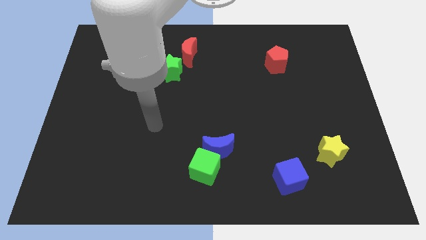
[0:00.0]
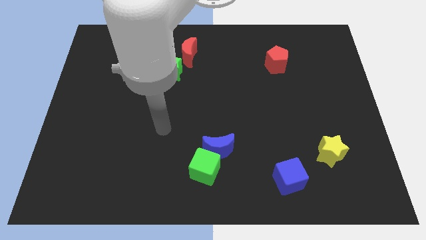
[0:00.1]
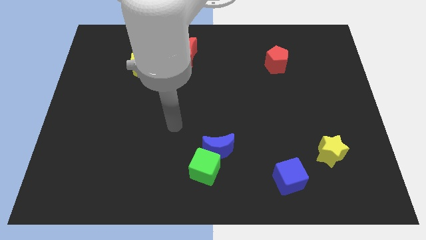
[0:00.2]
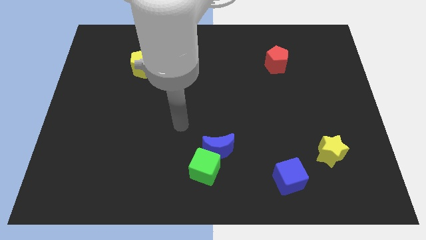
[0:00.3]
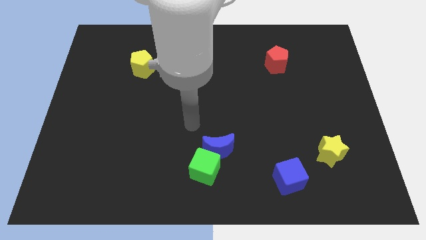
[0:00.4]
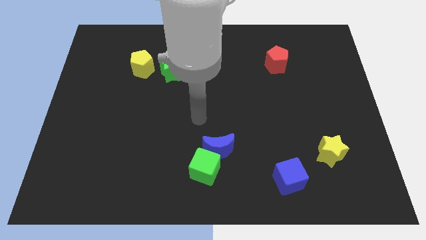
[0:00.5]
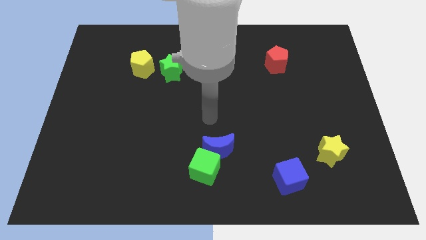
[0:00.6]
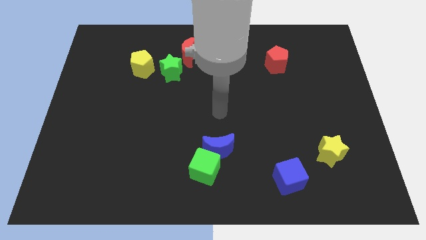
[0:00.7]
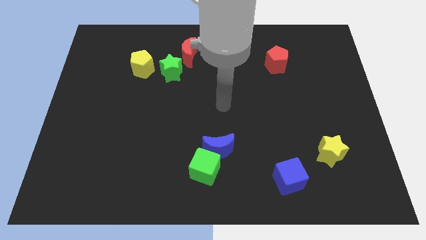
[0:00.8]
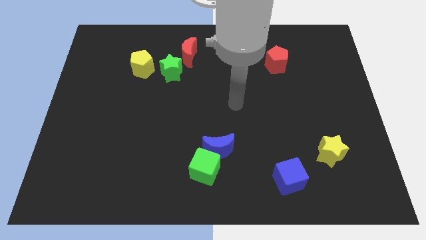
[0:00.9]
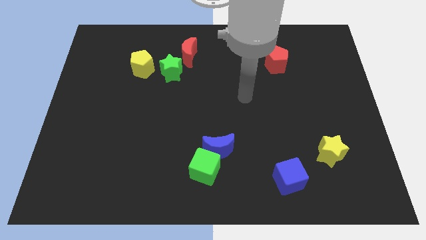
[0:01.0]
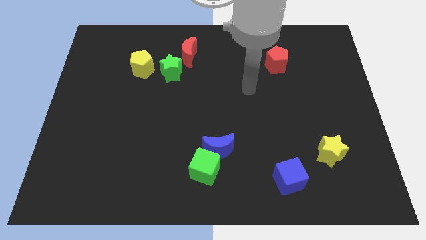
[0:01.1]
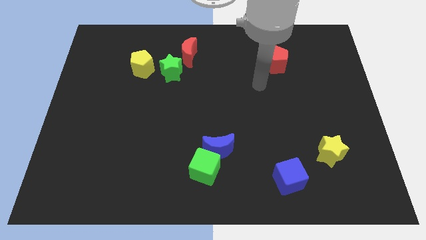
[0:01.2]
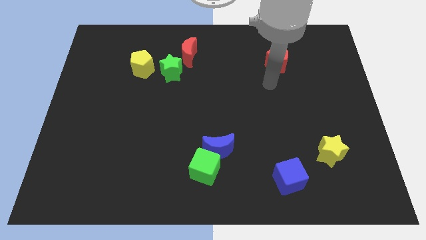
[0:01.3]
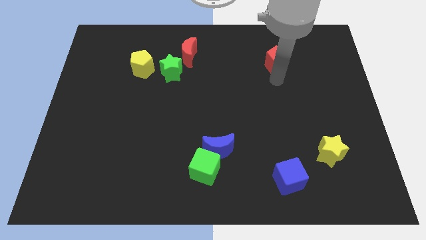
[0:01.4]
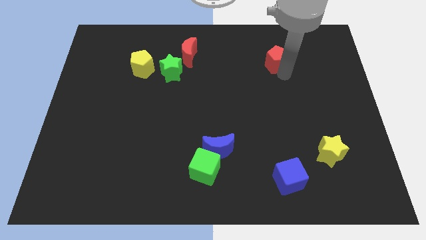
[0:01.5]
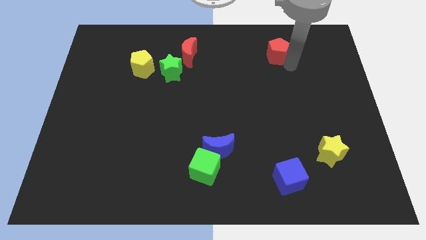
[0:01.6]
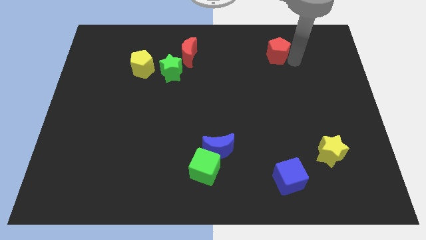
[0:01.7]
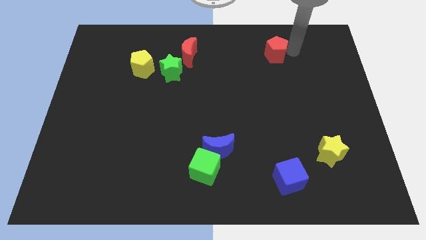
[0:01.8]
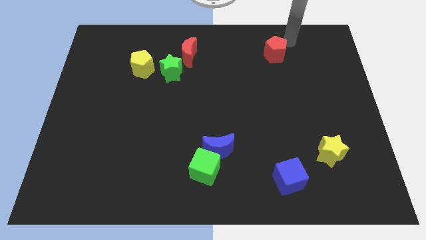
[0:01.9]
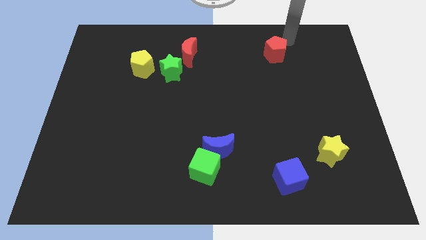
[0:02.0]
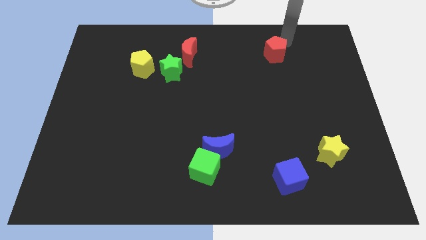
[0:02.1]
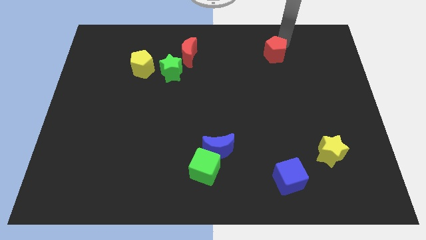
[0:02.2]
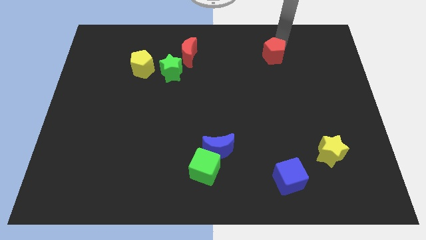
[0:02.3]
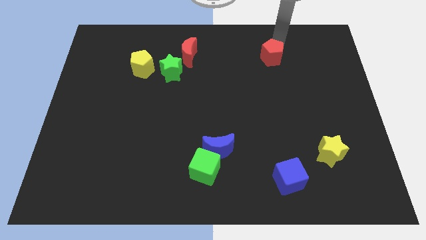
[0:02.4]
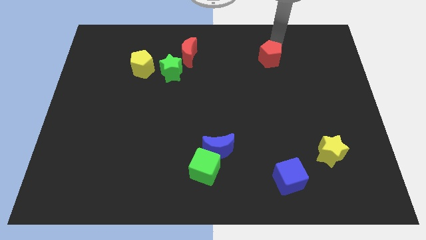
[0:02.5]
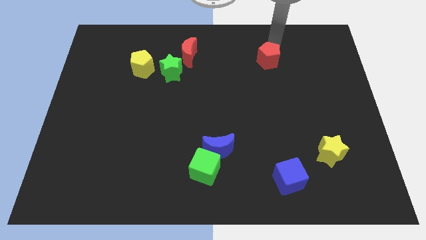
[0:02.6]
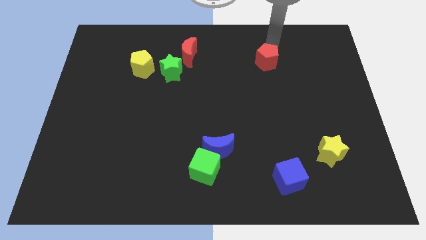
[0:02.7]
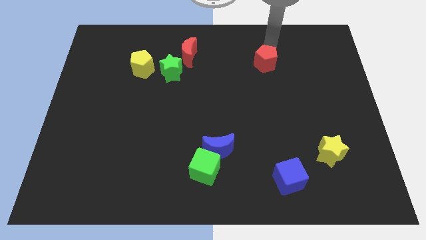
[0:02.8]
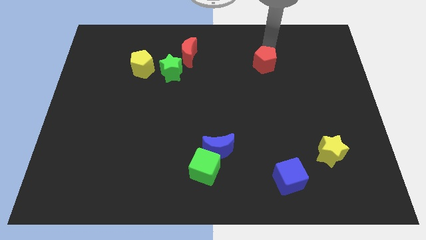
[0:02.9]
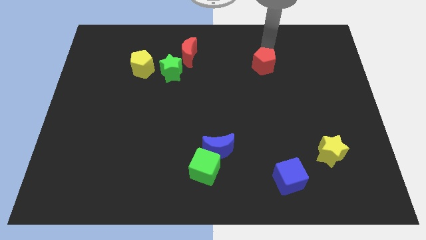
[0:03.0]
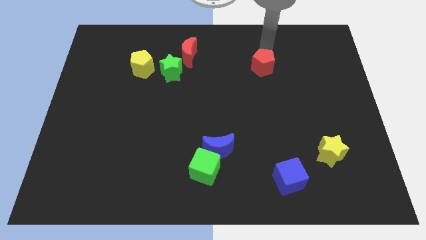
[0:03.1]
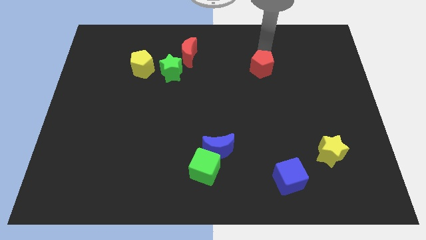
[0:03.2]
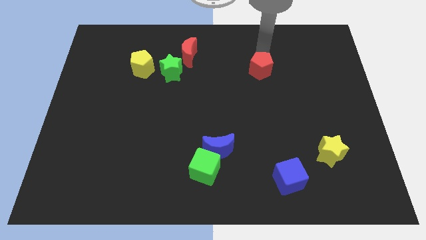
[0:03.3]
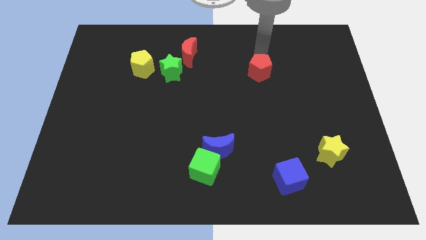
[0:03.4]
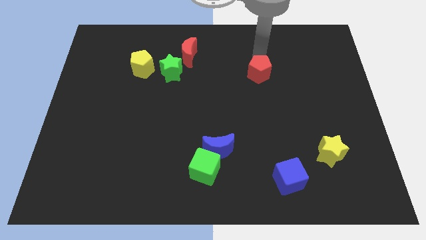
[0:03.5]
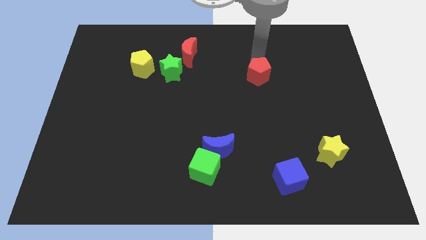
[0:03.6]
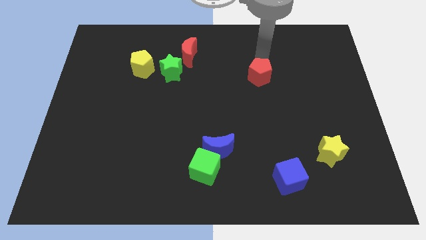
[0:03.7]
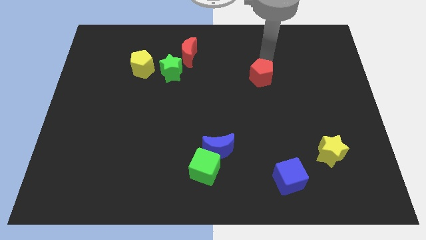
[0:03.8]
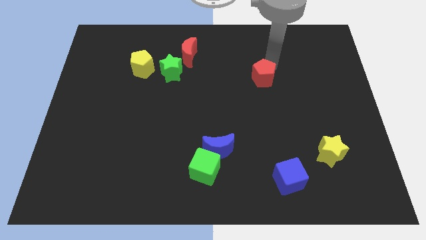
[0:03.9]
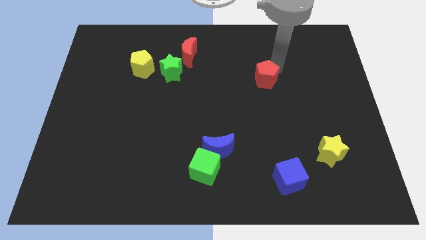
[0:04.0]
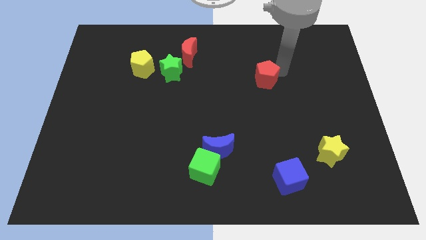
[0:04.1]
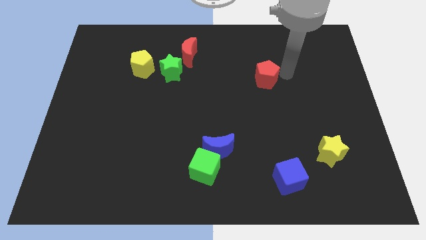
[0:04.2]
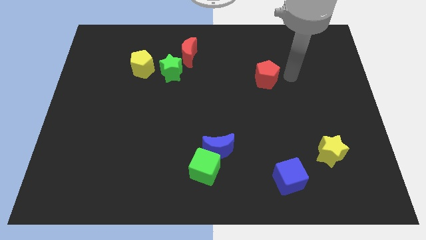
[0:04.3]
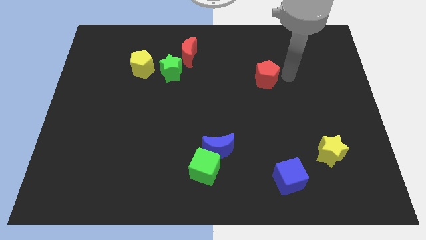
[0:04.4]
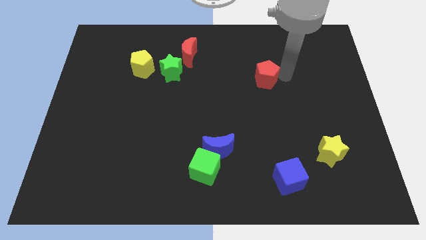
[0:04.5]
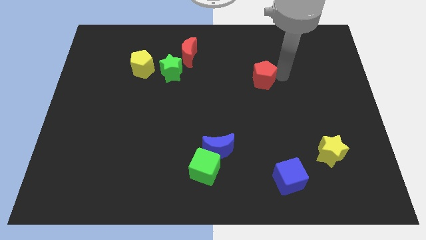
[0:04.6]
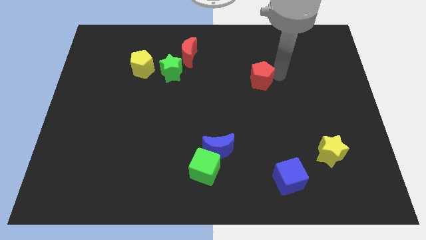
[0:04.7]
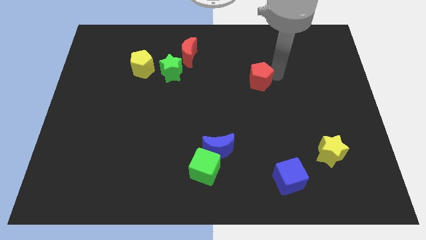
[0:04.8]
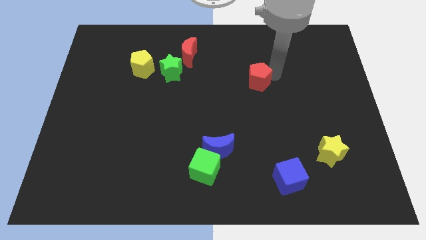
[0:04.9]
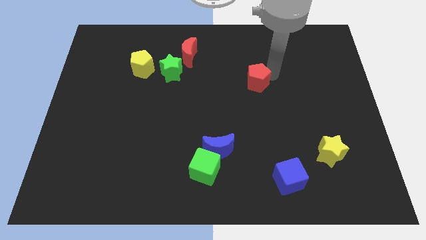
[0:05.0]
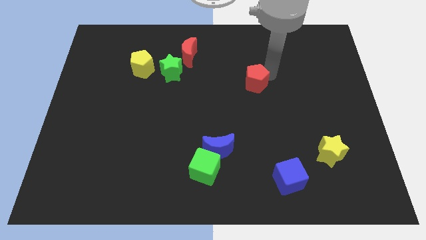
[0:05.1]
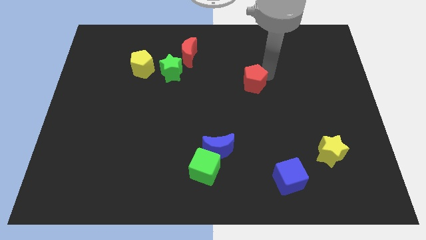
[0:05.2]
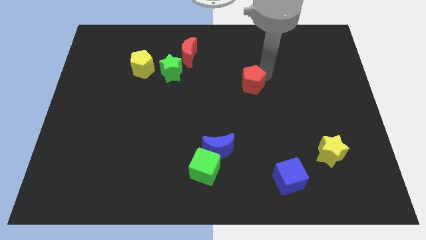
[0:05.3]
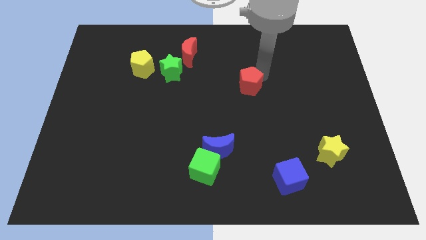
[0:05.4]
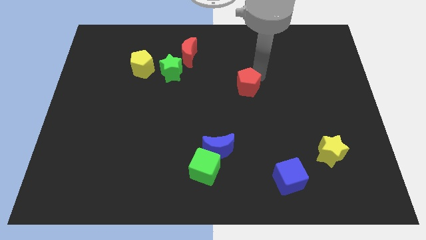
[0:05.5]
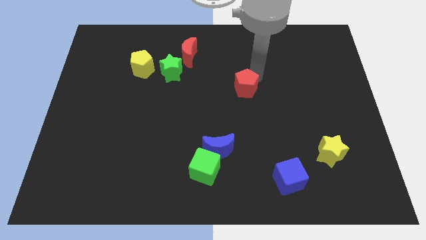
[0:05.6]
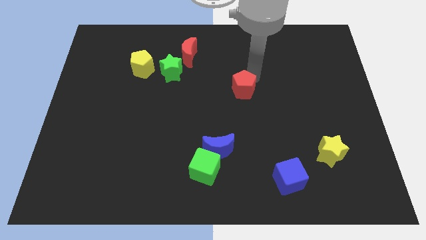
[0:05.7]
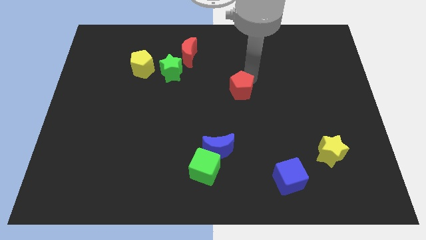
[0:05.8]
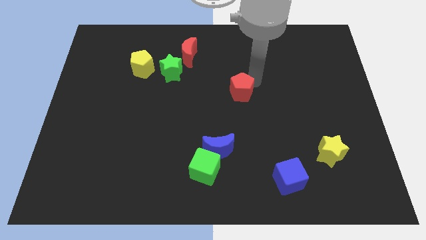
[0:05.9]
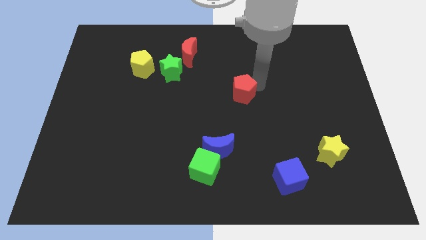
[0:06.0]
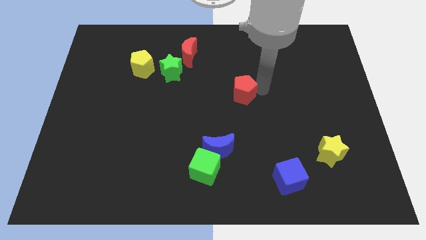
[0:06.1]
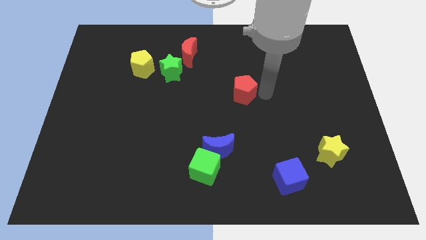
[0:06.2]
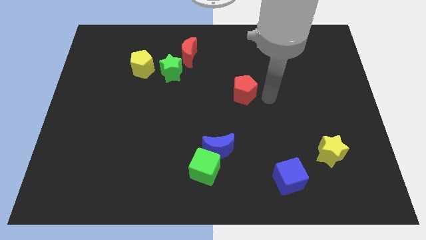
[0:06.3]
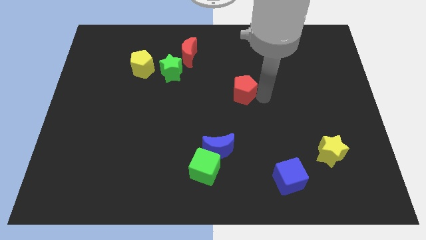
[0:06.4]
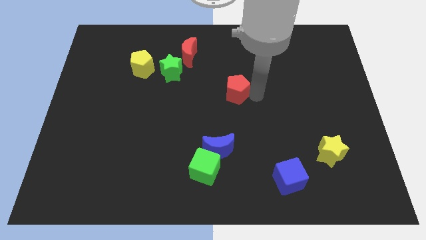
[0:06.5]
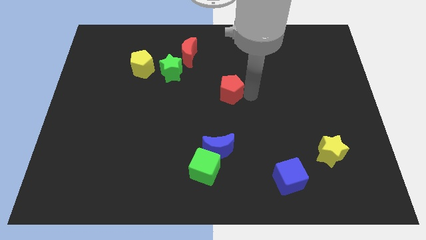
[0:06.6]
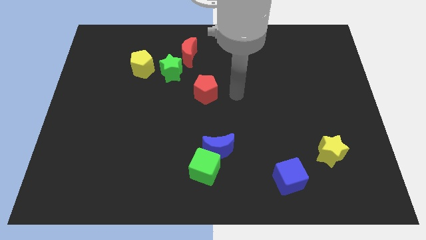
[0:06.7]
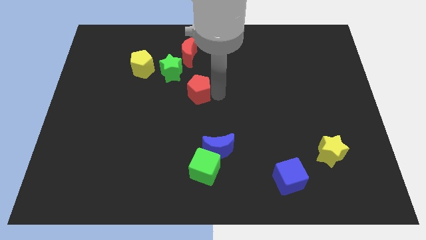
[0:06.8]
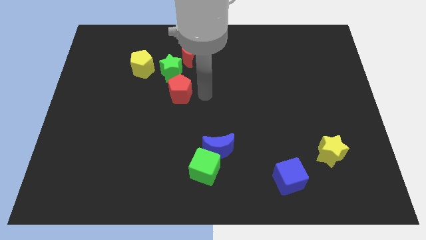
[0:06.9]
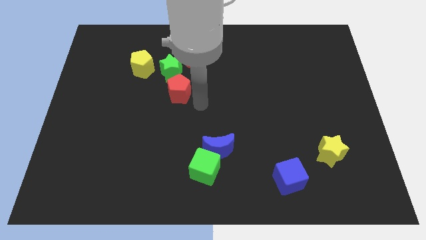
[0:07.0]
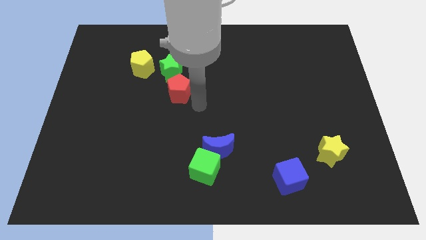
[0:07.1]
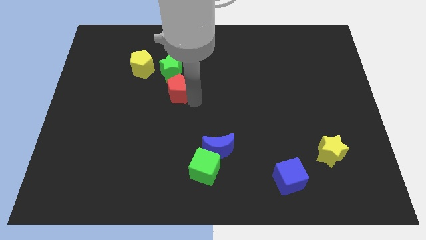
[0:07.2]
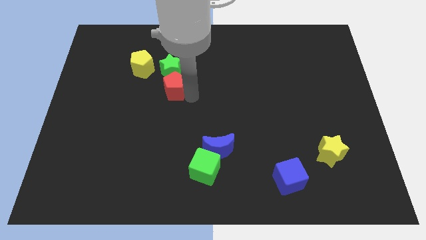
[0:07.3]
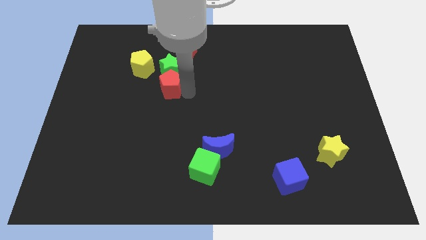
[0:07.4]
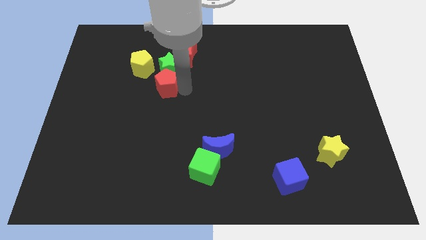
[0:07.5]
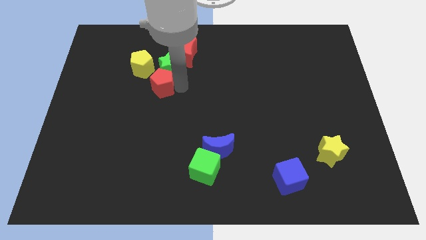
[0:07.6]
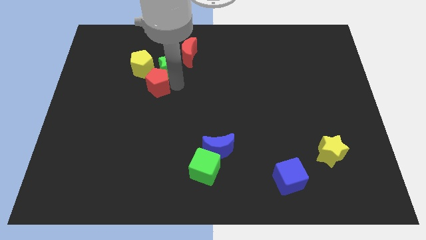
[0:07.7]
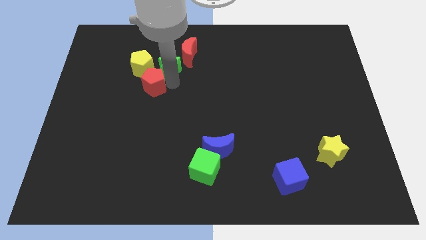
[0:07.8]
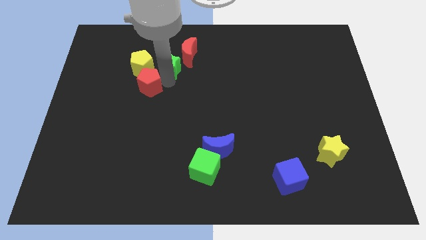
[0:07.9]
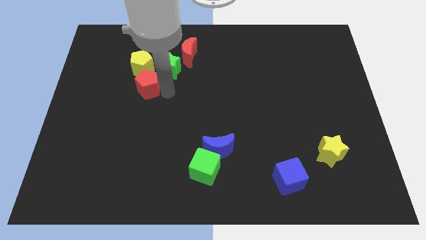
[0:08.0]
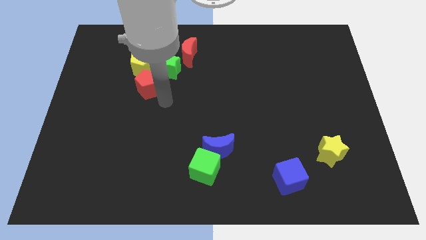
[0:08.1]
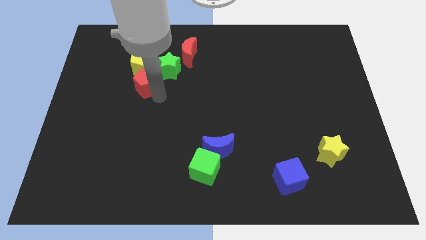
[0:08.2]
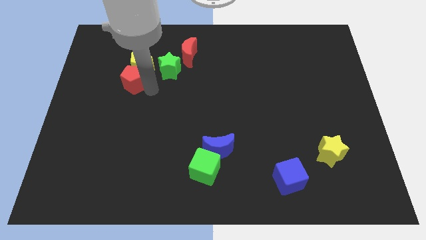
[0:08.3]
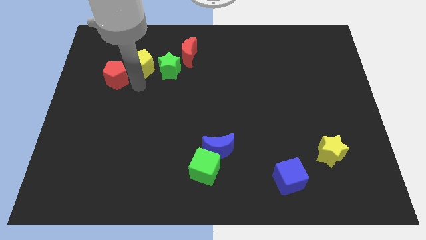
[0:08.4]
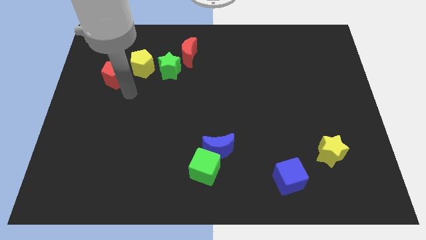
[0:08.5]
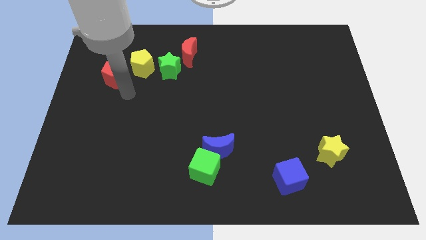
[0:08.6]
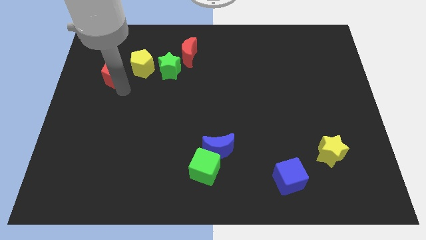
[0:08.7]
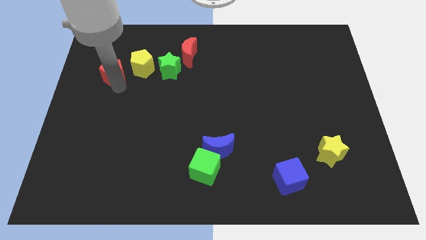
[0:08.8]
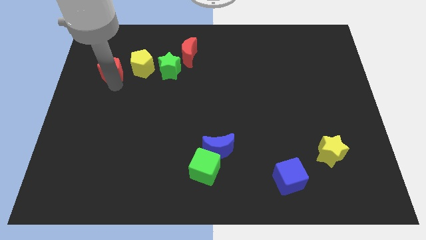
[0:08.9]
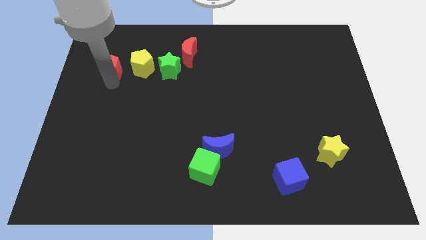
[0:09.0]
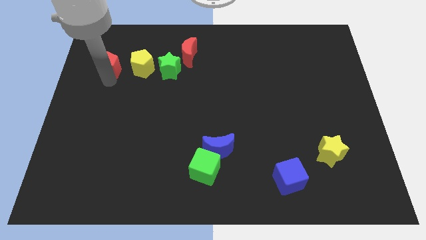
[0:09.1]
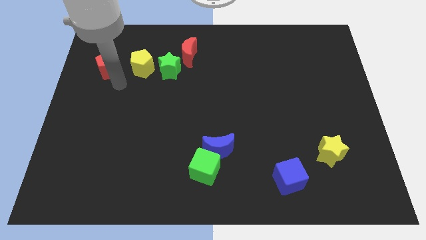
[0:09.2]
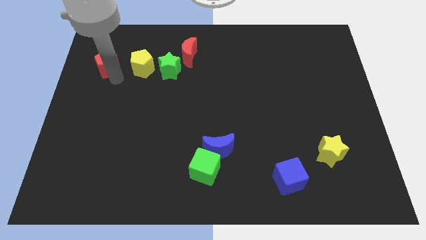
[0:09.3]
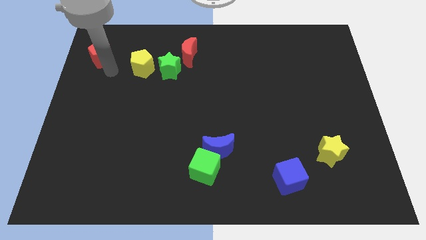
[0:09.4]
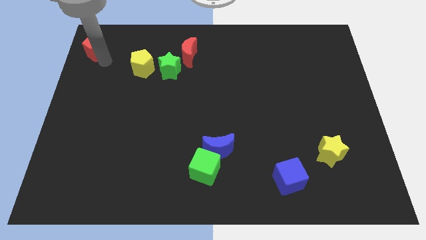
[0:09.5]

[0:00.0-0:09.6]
put the red pentagon to the top left of the board
